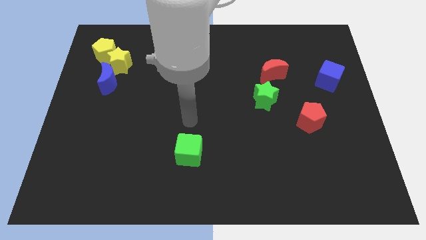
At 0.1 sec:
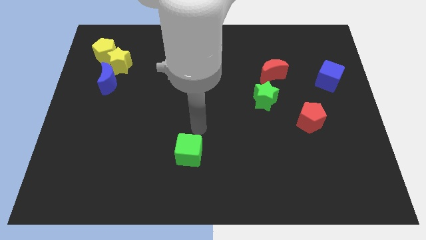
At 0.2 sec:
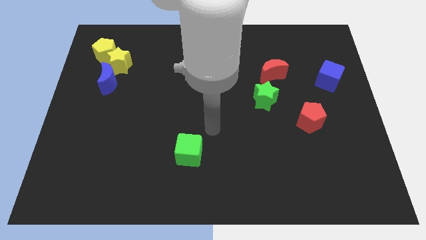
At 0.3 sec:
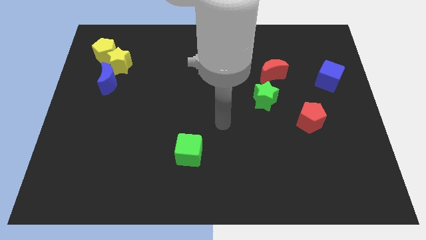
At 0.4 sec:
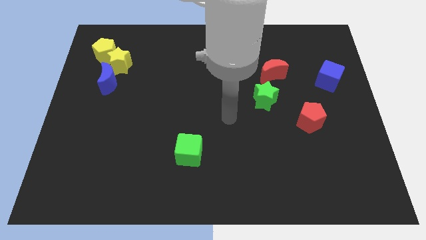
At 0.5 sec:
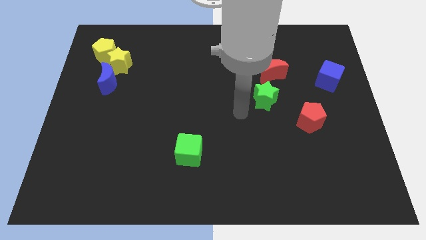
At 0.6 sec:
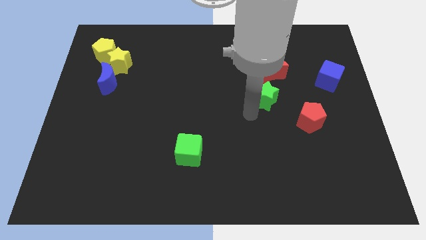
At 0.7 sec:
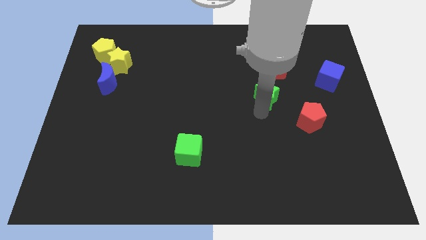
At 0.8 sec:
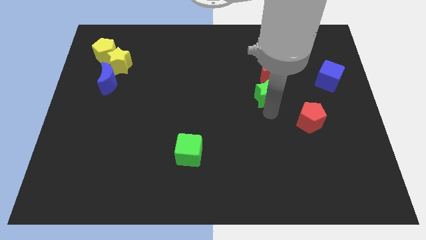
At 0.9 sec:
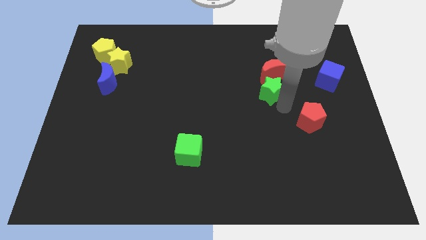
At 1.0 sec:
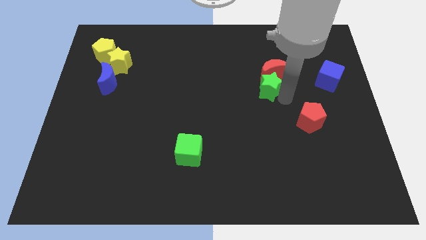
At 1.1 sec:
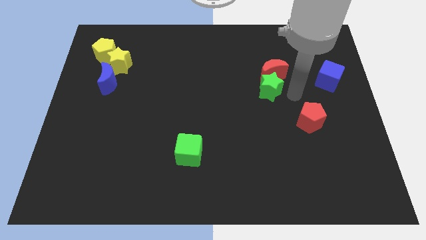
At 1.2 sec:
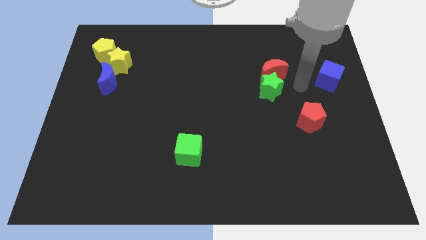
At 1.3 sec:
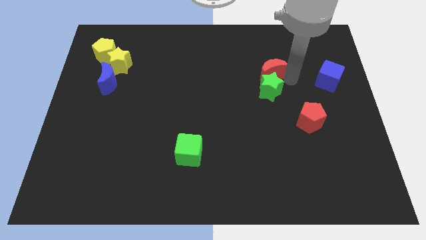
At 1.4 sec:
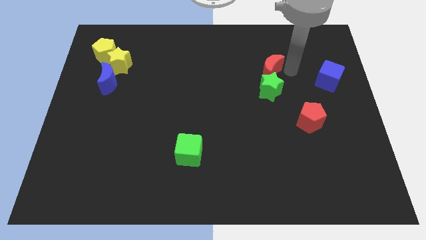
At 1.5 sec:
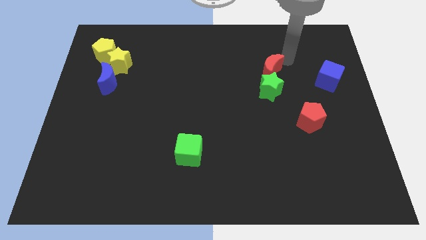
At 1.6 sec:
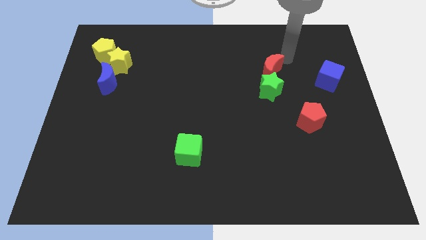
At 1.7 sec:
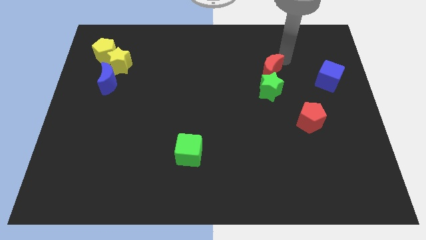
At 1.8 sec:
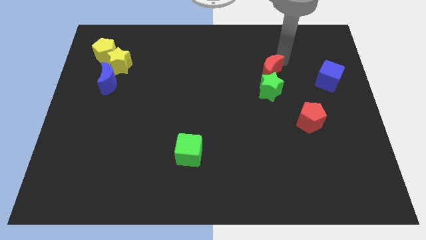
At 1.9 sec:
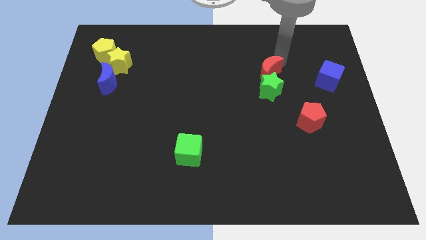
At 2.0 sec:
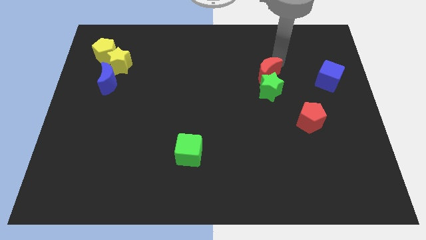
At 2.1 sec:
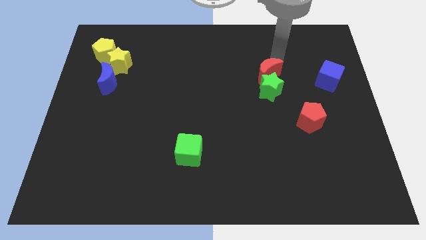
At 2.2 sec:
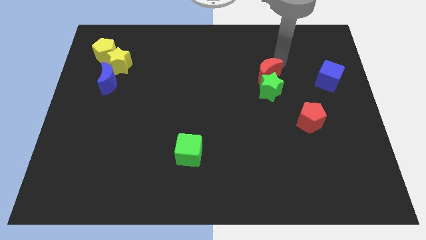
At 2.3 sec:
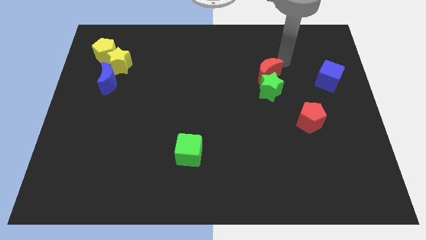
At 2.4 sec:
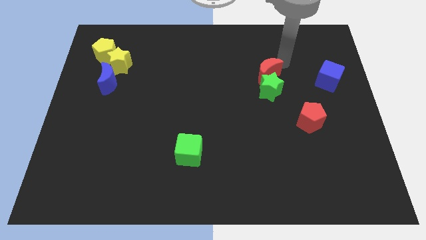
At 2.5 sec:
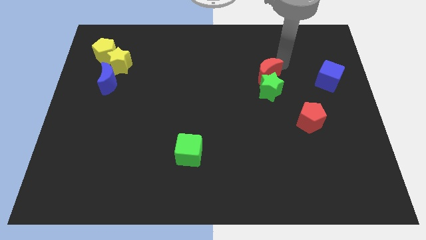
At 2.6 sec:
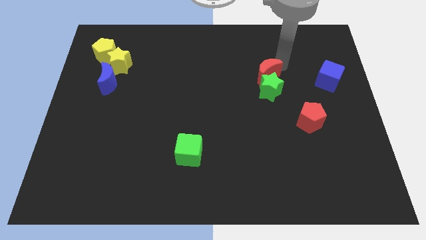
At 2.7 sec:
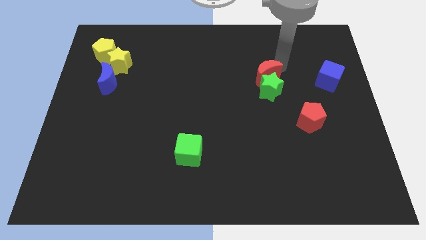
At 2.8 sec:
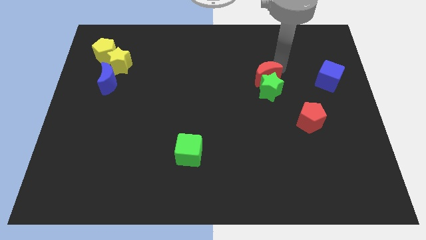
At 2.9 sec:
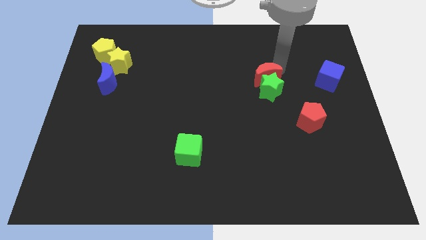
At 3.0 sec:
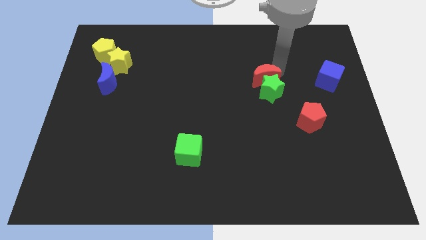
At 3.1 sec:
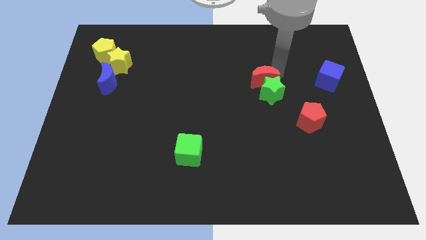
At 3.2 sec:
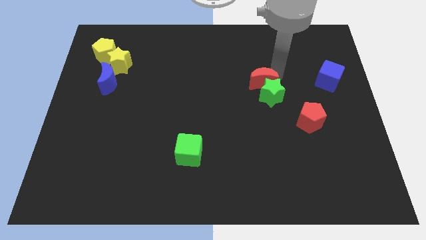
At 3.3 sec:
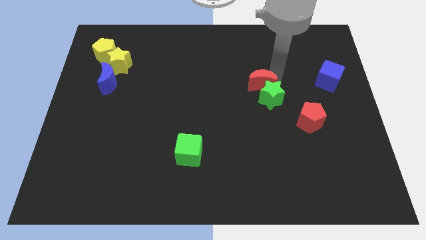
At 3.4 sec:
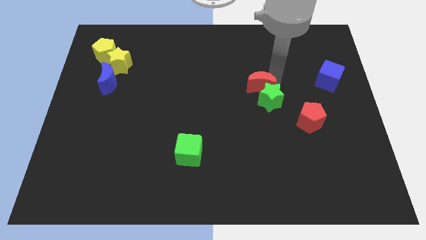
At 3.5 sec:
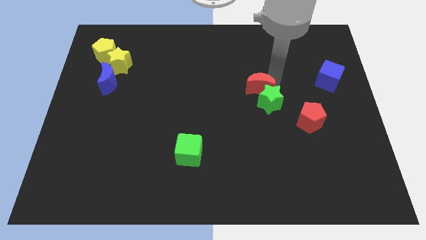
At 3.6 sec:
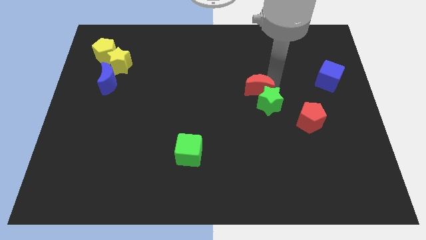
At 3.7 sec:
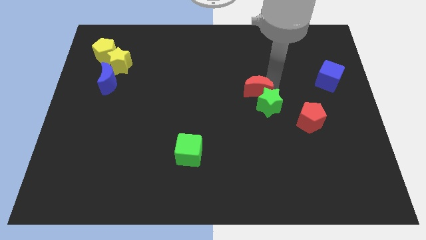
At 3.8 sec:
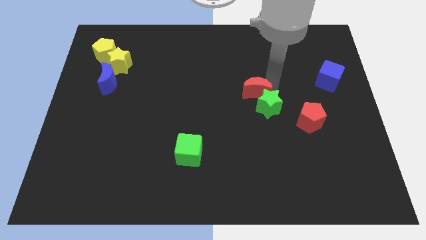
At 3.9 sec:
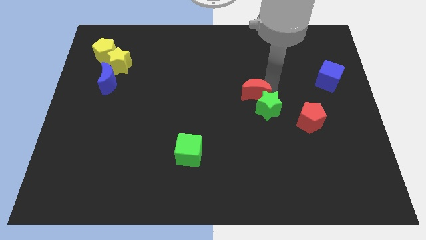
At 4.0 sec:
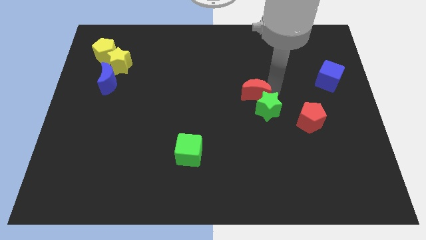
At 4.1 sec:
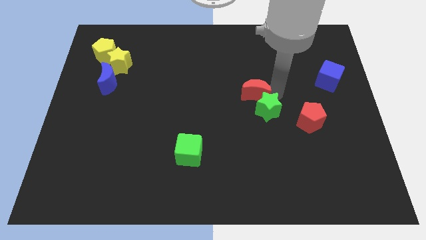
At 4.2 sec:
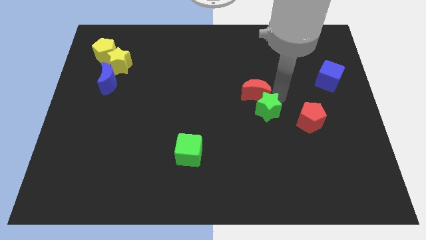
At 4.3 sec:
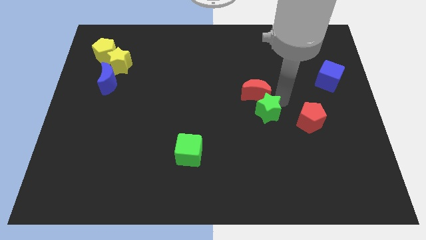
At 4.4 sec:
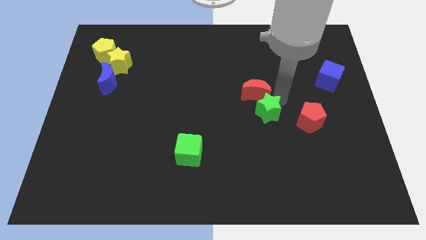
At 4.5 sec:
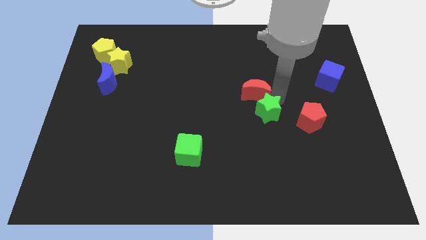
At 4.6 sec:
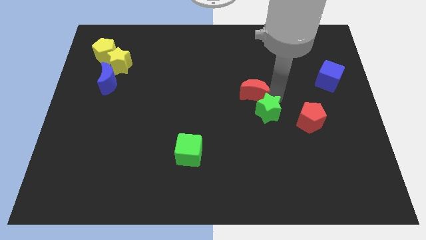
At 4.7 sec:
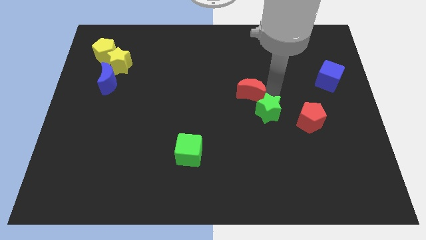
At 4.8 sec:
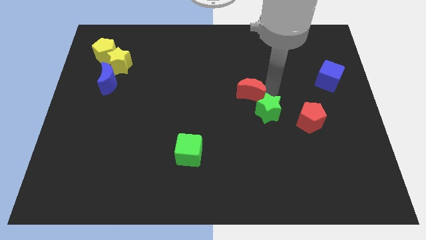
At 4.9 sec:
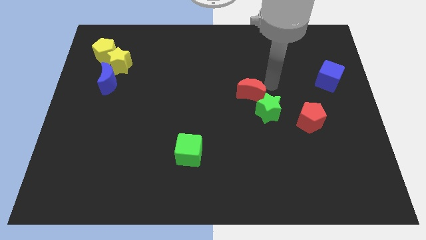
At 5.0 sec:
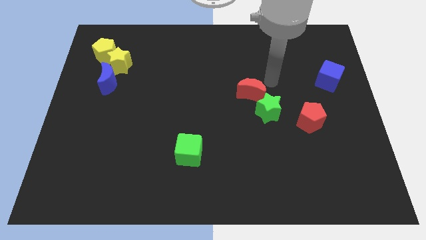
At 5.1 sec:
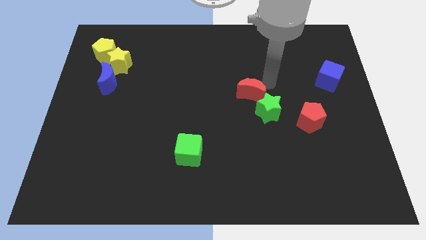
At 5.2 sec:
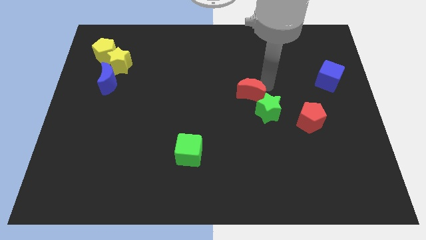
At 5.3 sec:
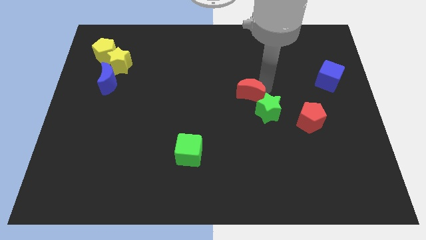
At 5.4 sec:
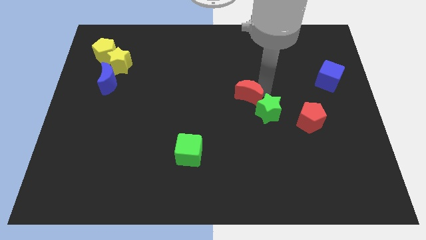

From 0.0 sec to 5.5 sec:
move the red moon left of the green star

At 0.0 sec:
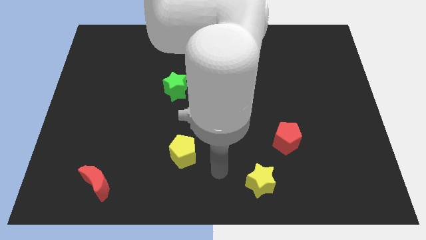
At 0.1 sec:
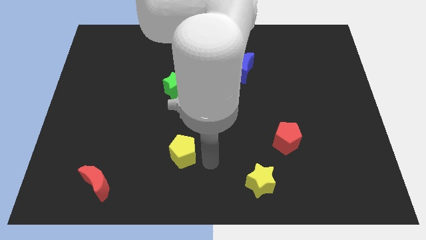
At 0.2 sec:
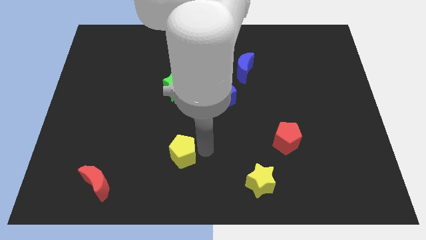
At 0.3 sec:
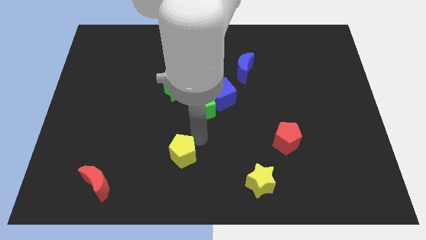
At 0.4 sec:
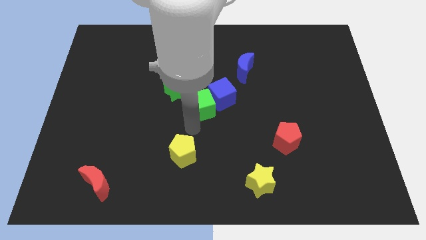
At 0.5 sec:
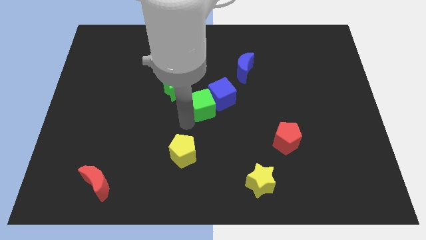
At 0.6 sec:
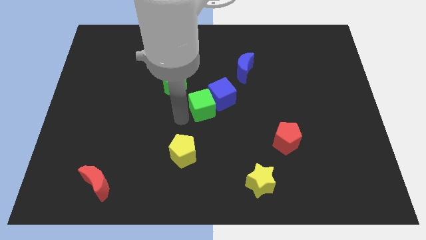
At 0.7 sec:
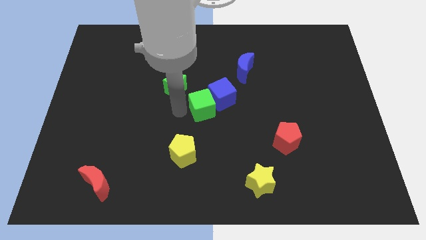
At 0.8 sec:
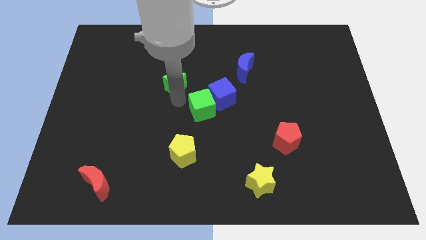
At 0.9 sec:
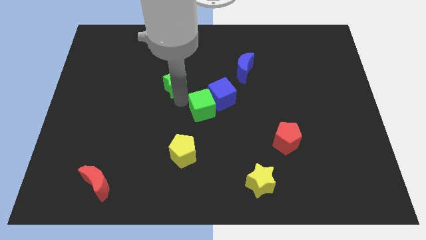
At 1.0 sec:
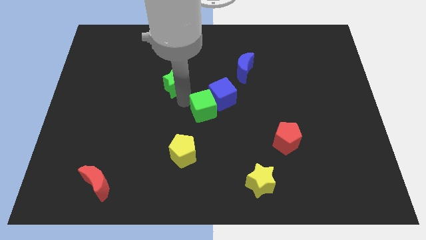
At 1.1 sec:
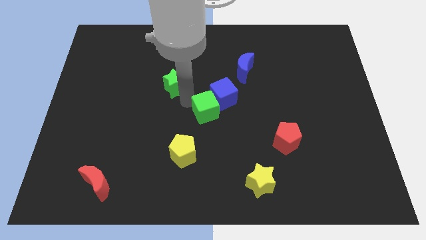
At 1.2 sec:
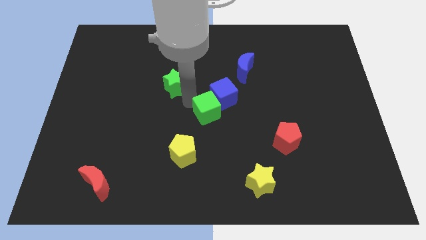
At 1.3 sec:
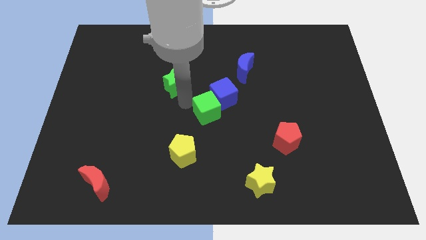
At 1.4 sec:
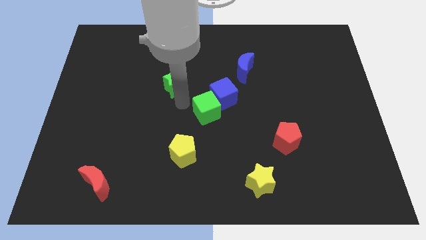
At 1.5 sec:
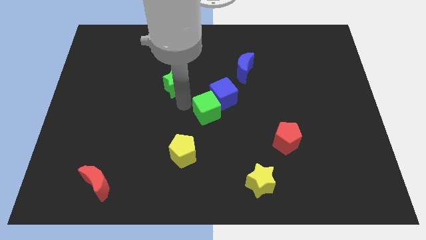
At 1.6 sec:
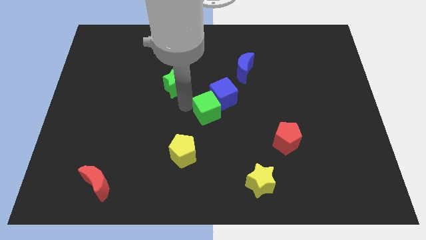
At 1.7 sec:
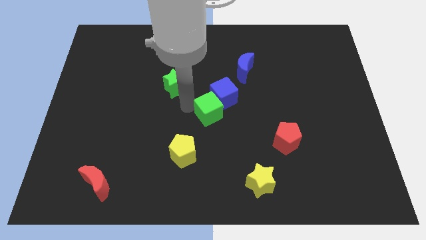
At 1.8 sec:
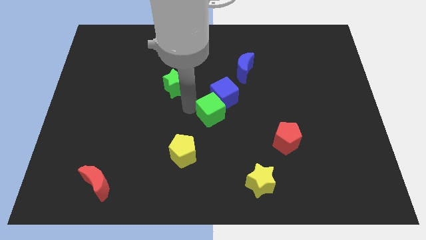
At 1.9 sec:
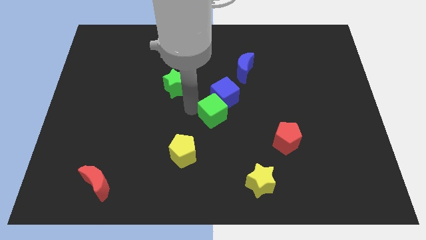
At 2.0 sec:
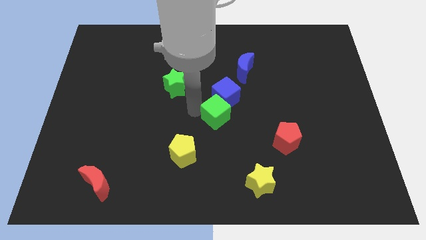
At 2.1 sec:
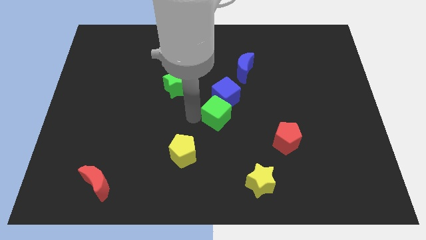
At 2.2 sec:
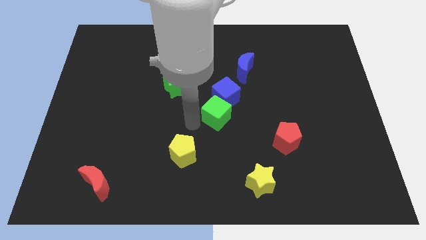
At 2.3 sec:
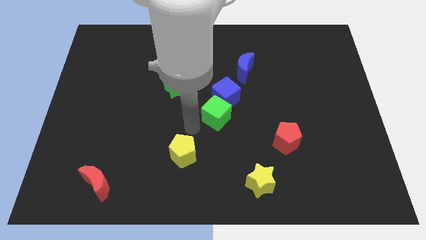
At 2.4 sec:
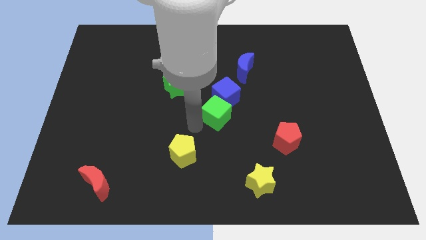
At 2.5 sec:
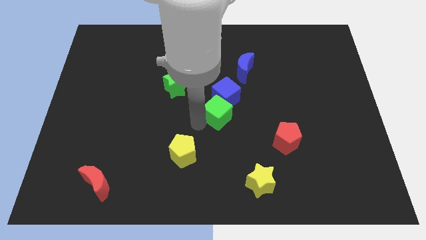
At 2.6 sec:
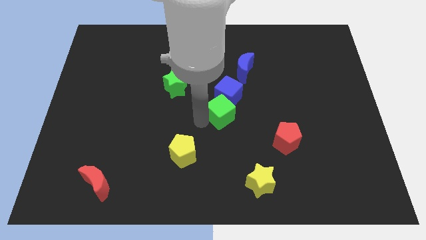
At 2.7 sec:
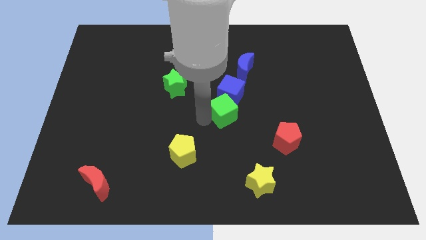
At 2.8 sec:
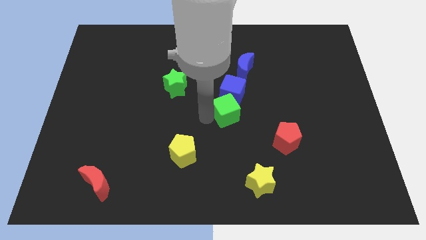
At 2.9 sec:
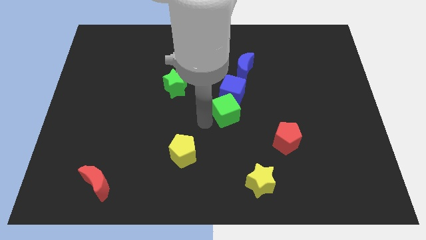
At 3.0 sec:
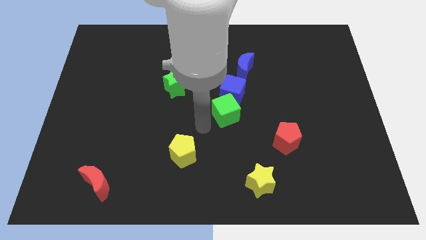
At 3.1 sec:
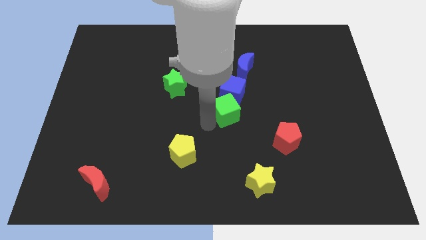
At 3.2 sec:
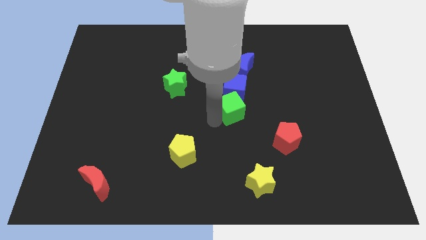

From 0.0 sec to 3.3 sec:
put the green cube to the bottom of the blue moon
